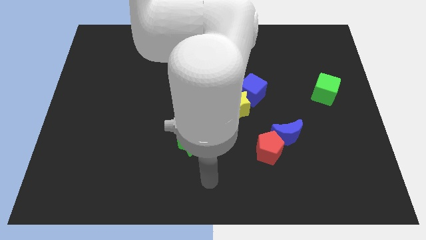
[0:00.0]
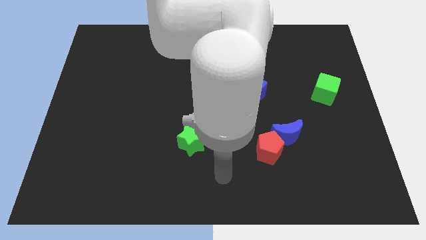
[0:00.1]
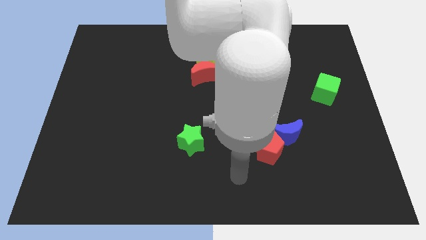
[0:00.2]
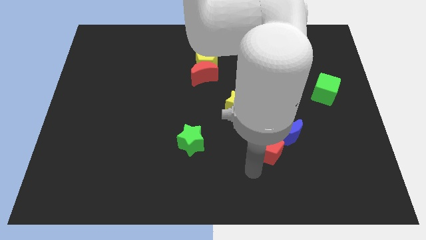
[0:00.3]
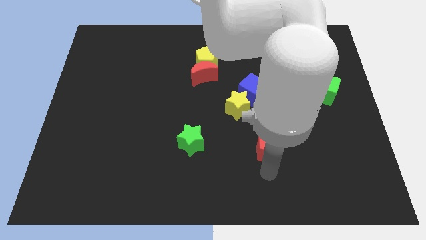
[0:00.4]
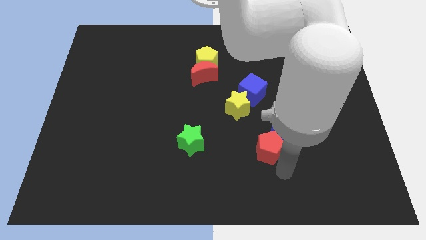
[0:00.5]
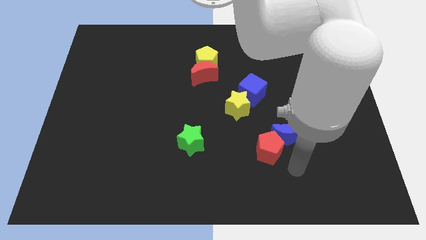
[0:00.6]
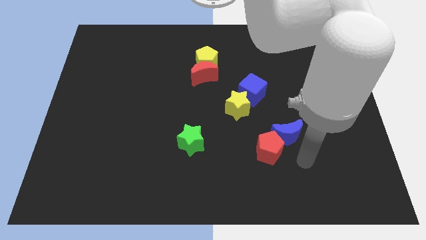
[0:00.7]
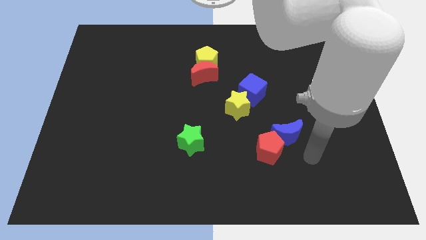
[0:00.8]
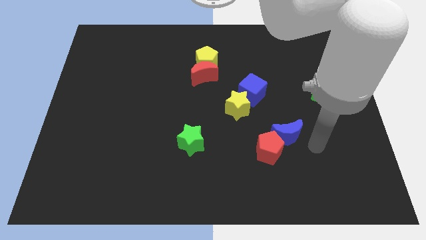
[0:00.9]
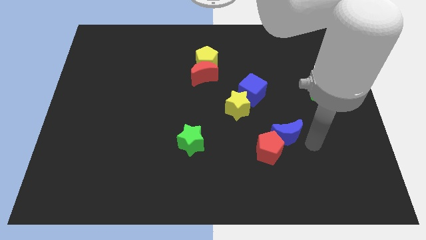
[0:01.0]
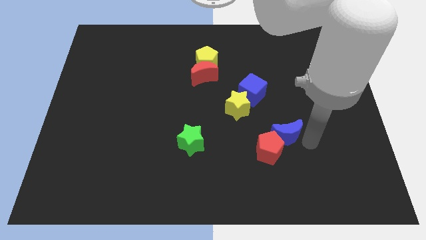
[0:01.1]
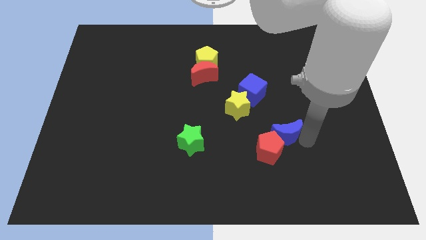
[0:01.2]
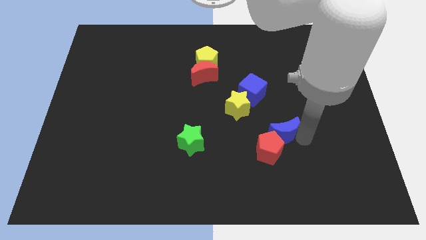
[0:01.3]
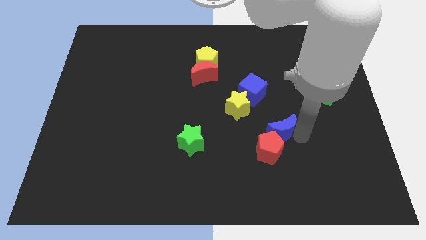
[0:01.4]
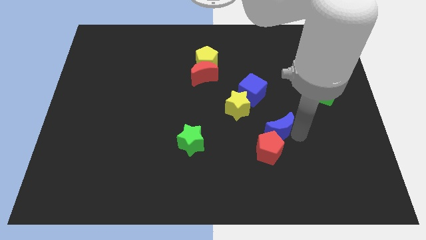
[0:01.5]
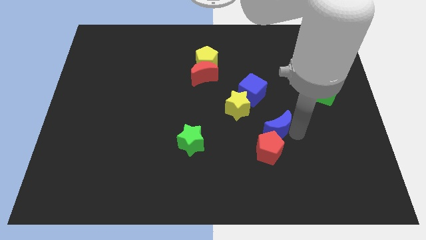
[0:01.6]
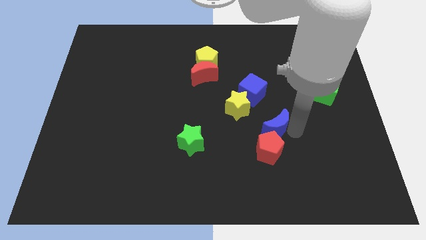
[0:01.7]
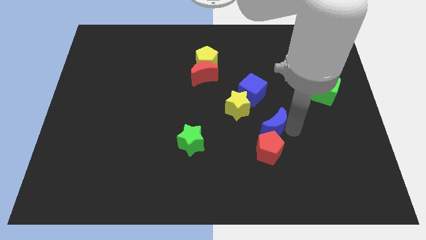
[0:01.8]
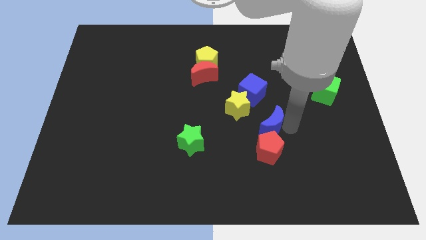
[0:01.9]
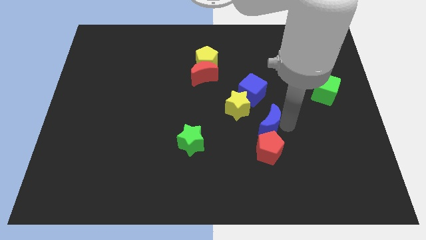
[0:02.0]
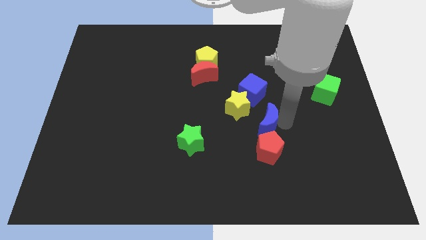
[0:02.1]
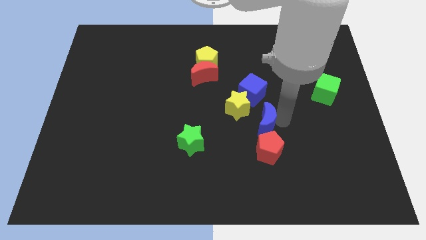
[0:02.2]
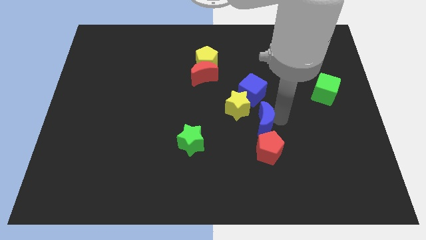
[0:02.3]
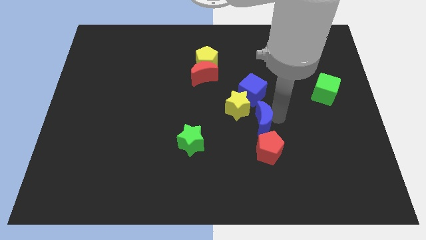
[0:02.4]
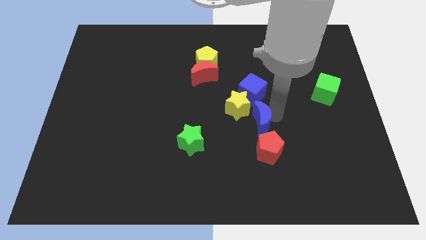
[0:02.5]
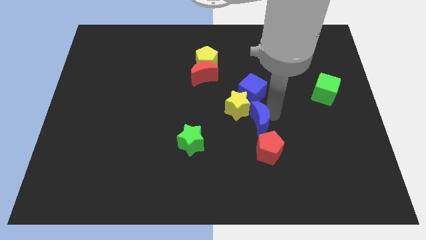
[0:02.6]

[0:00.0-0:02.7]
slide the blue moon up and left a bit

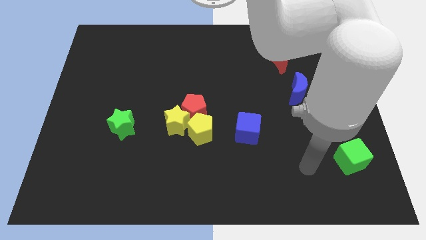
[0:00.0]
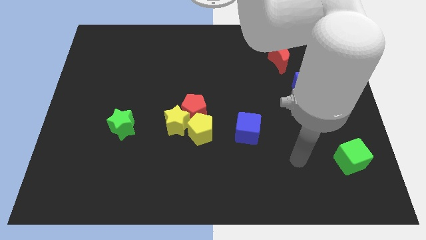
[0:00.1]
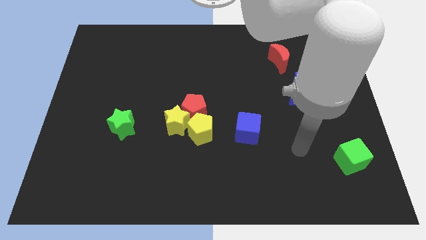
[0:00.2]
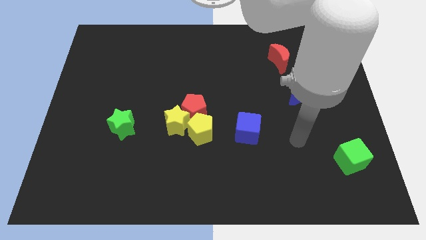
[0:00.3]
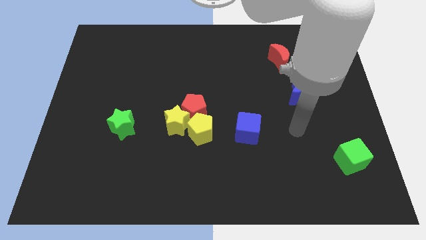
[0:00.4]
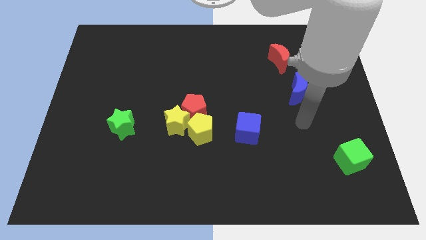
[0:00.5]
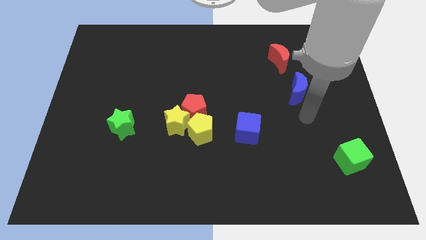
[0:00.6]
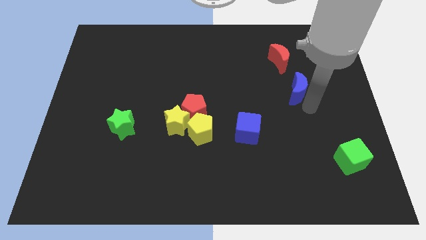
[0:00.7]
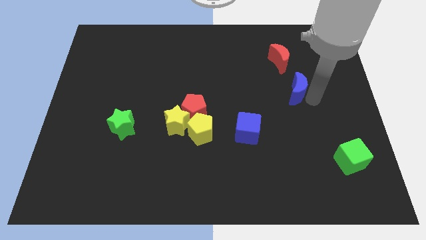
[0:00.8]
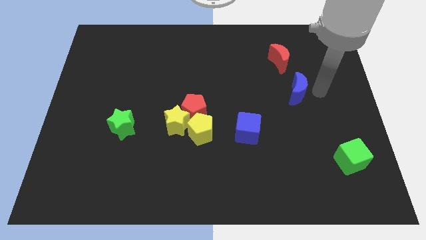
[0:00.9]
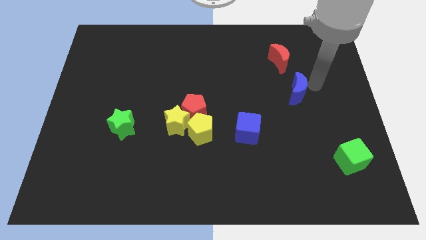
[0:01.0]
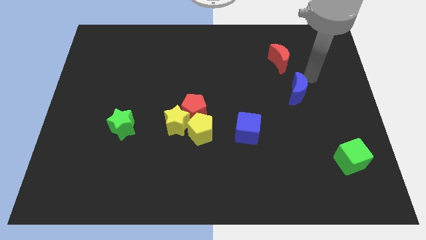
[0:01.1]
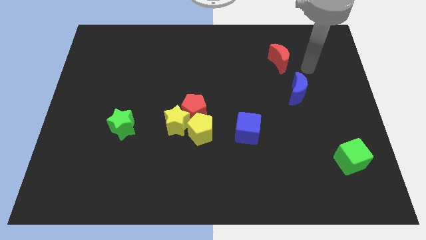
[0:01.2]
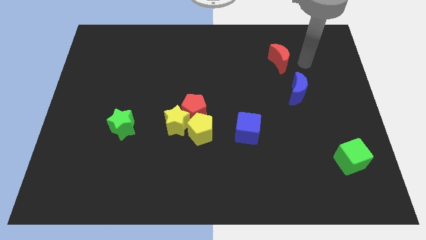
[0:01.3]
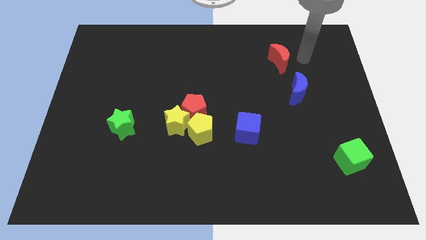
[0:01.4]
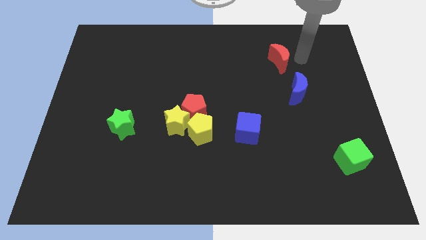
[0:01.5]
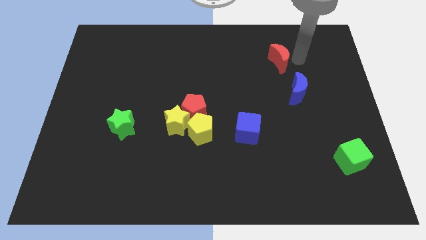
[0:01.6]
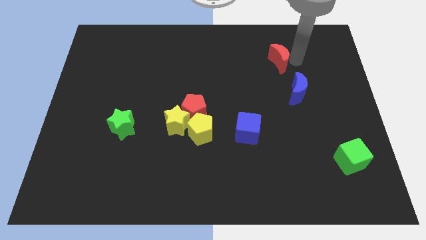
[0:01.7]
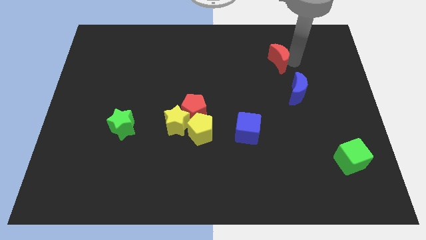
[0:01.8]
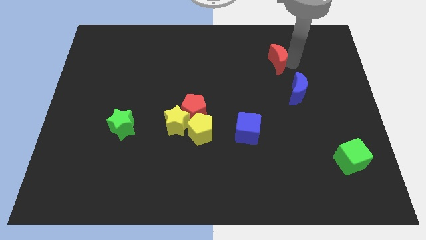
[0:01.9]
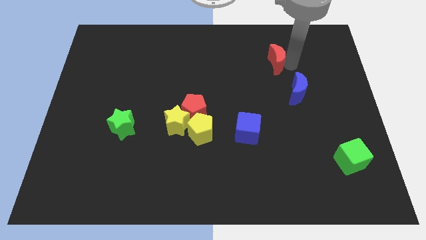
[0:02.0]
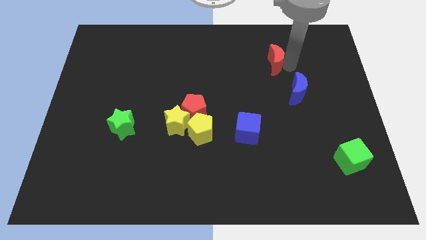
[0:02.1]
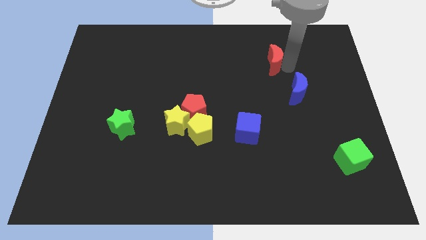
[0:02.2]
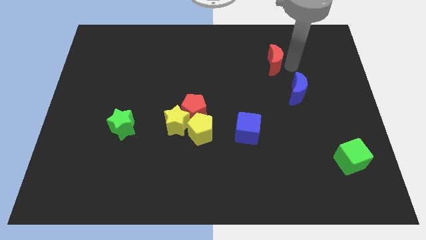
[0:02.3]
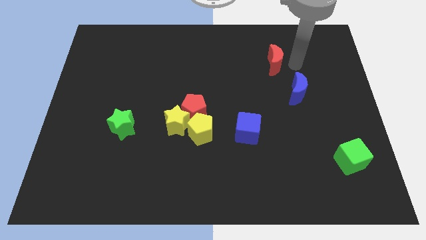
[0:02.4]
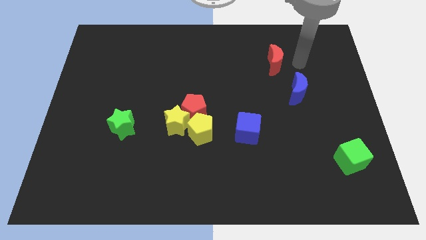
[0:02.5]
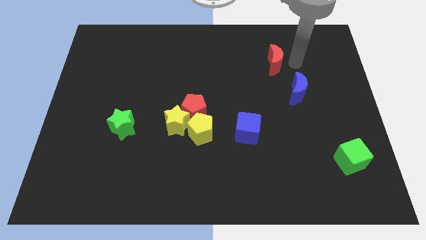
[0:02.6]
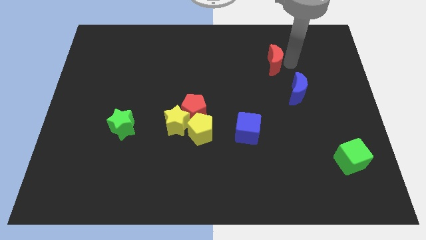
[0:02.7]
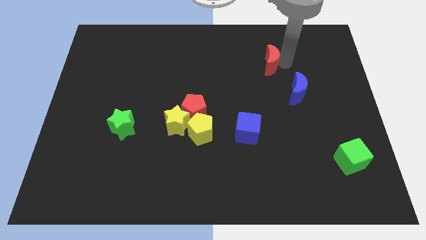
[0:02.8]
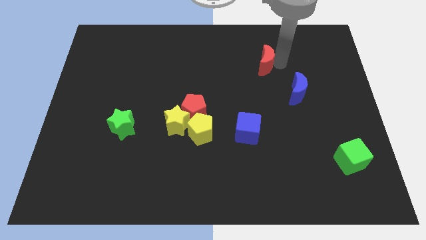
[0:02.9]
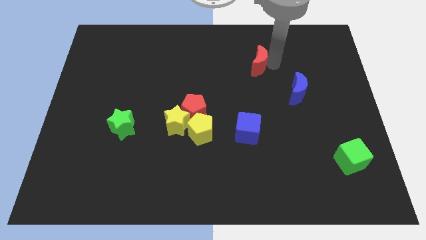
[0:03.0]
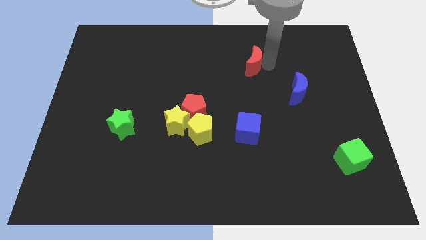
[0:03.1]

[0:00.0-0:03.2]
push the red moon to the left a little

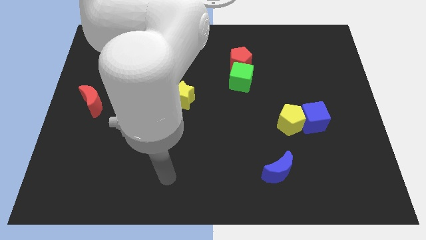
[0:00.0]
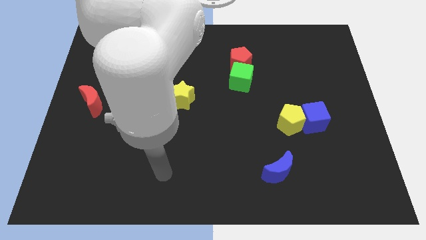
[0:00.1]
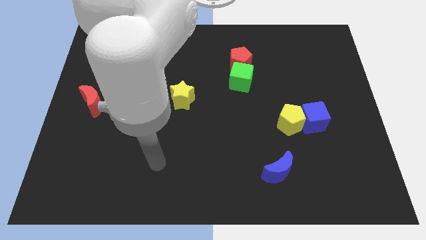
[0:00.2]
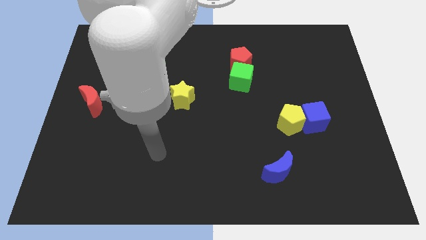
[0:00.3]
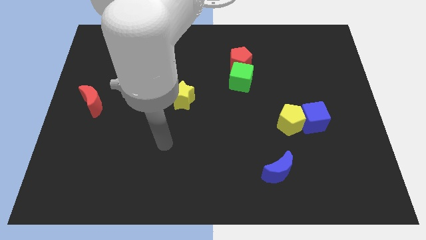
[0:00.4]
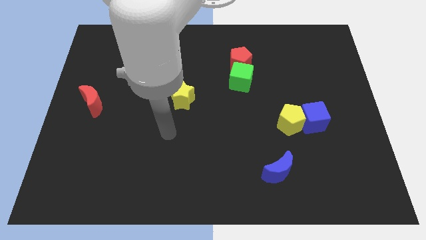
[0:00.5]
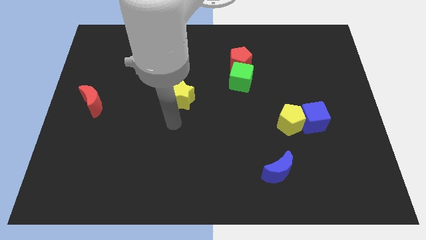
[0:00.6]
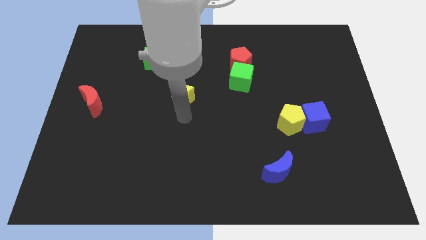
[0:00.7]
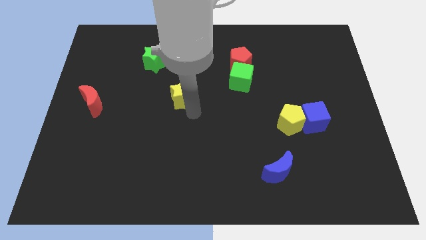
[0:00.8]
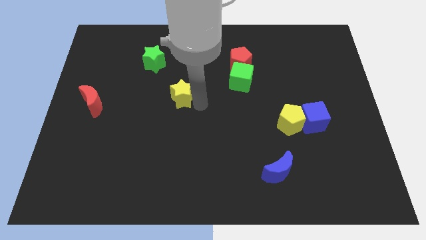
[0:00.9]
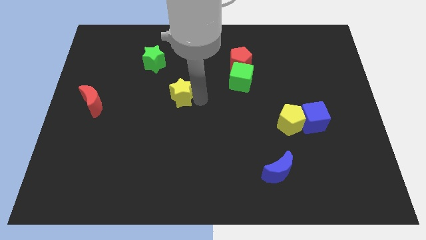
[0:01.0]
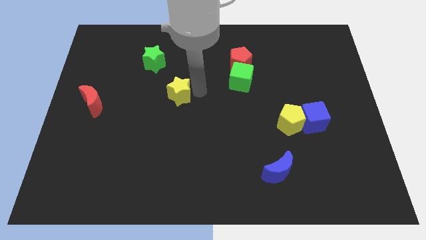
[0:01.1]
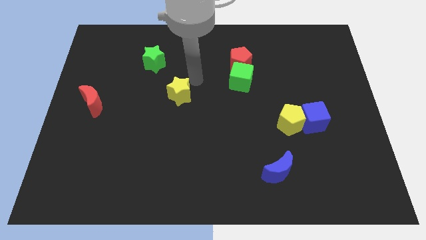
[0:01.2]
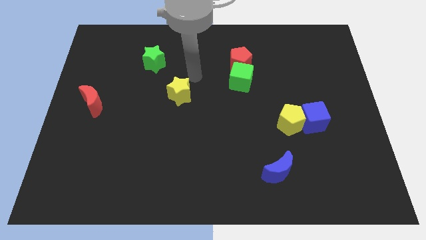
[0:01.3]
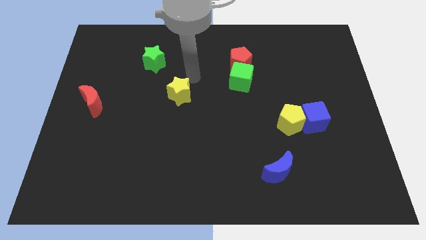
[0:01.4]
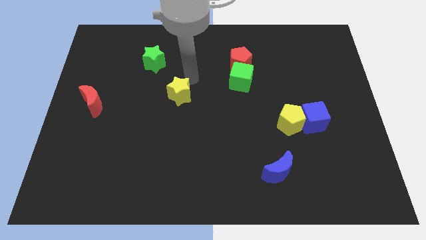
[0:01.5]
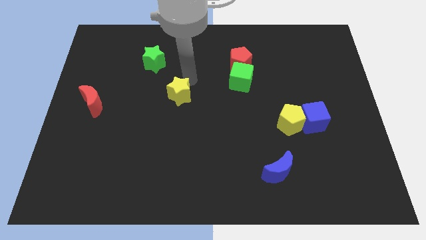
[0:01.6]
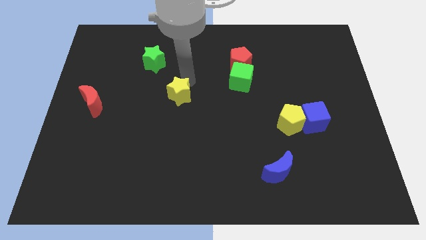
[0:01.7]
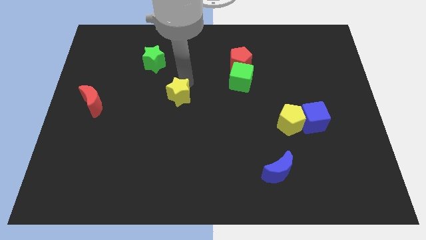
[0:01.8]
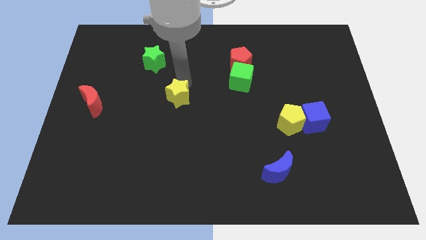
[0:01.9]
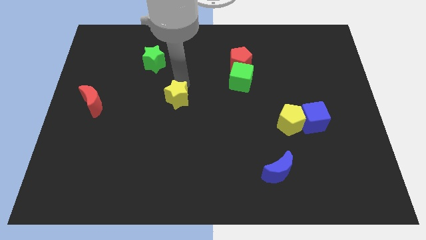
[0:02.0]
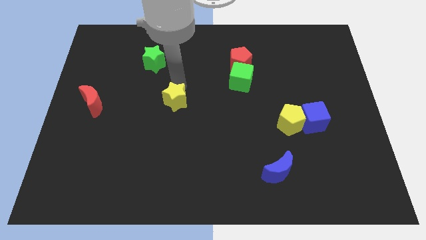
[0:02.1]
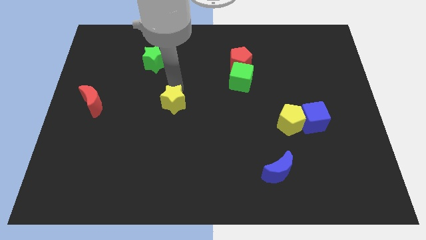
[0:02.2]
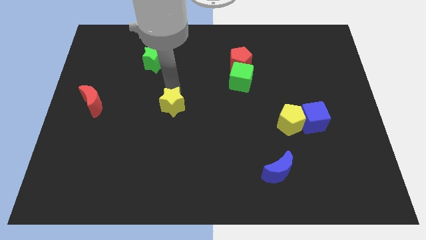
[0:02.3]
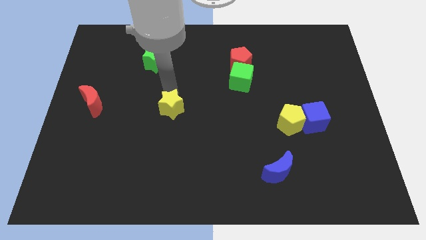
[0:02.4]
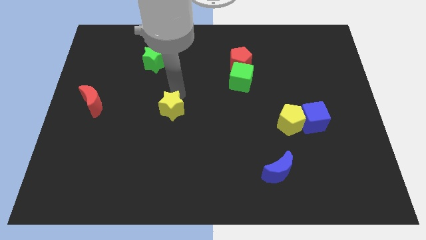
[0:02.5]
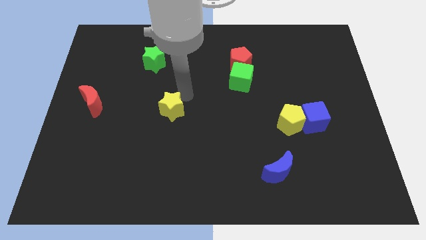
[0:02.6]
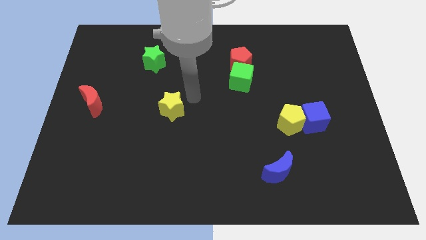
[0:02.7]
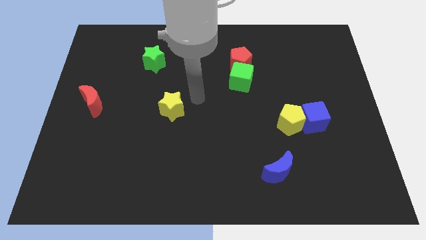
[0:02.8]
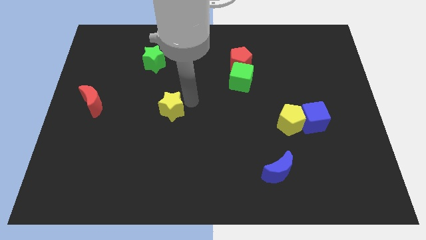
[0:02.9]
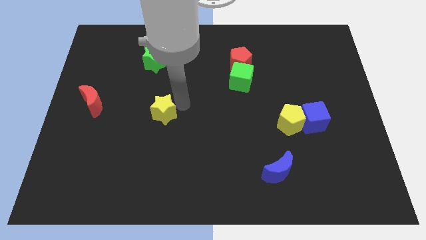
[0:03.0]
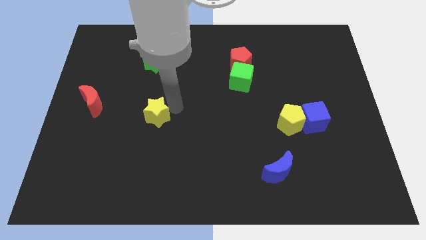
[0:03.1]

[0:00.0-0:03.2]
push the yellow star downwards and left a little
